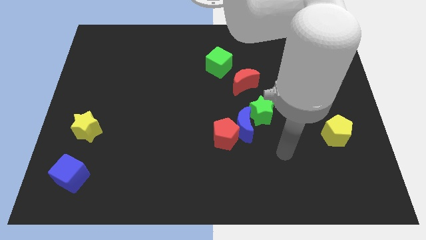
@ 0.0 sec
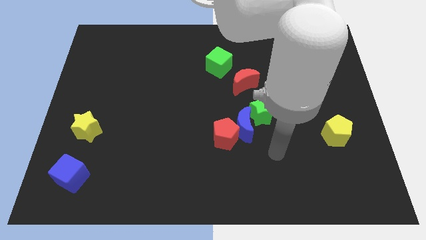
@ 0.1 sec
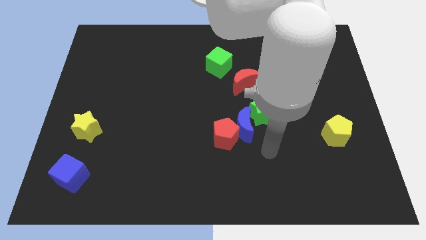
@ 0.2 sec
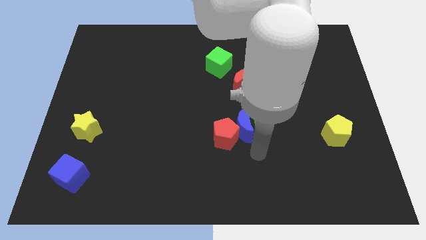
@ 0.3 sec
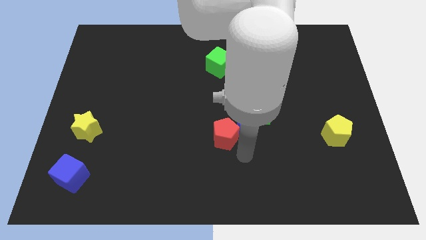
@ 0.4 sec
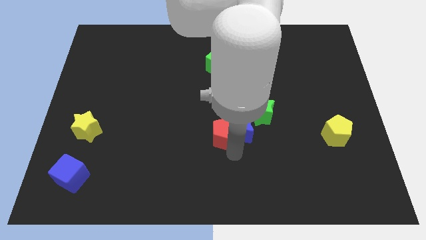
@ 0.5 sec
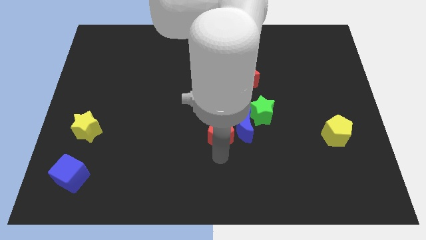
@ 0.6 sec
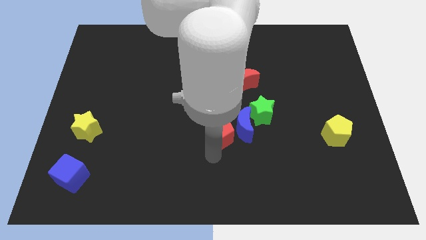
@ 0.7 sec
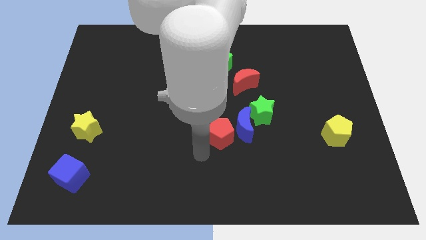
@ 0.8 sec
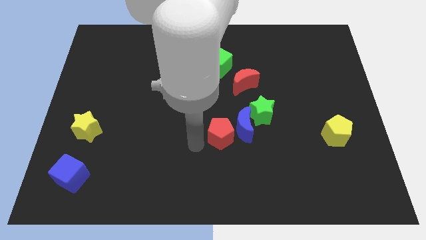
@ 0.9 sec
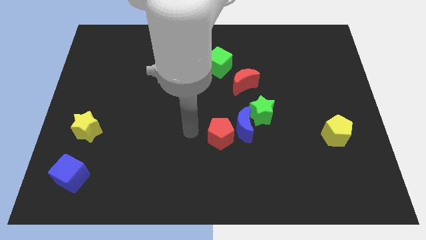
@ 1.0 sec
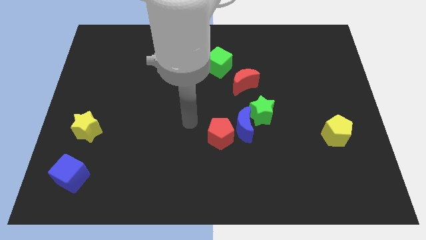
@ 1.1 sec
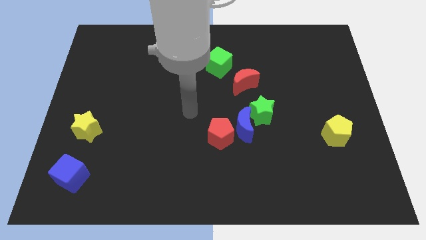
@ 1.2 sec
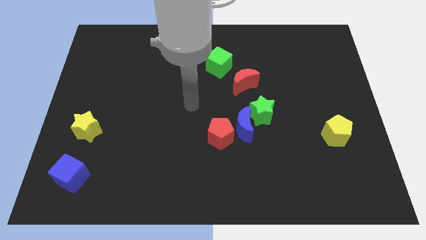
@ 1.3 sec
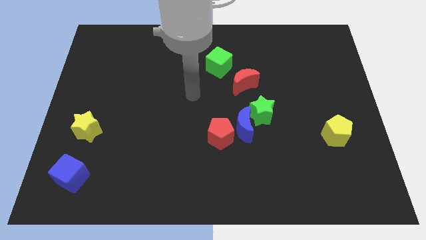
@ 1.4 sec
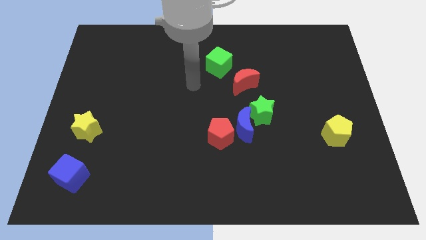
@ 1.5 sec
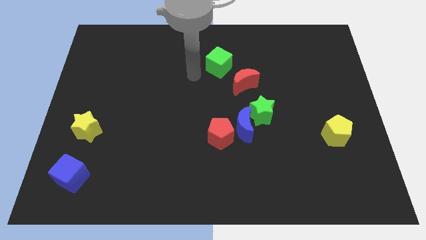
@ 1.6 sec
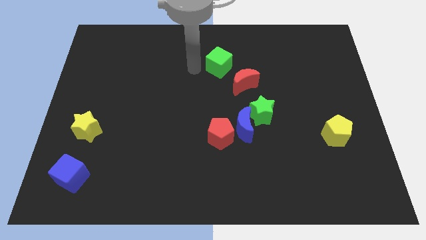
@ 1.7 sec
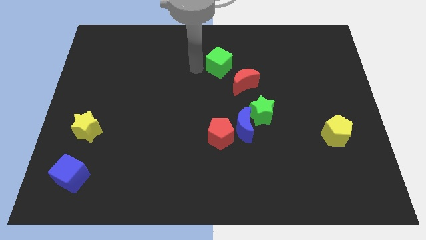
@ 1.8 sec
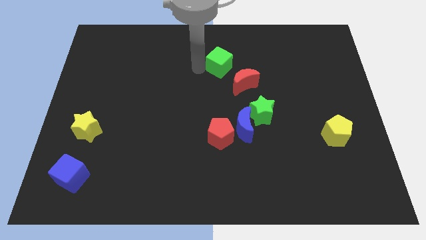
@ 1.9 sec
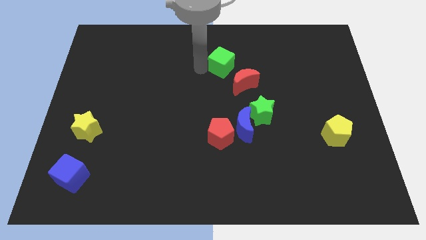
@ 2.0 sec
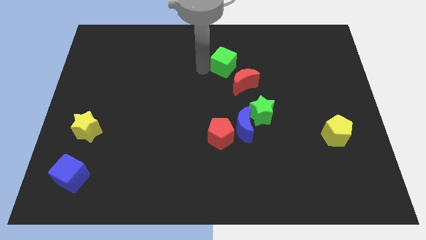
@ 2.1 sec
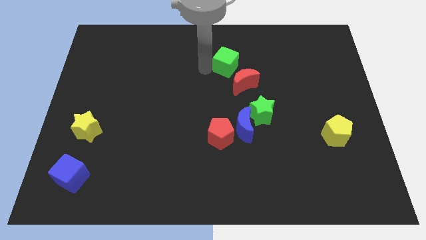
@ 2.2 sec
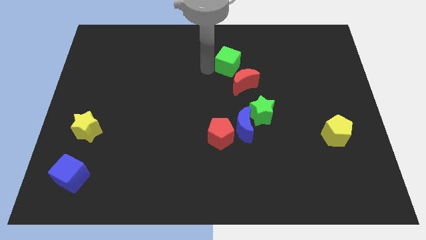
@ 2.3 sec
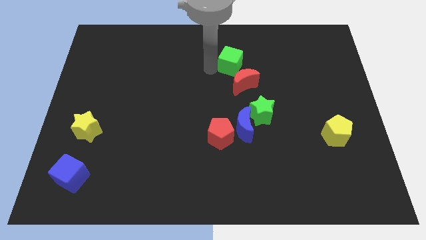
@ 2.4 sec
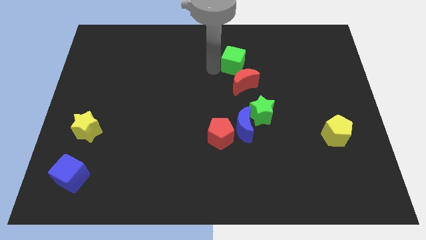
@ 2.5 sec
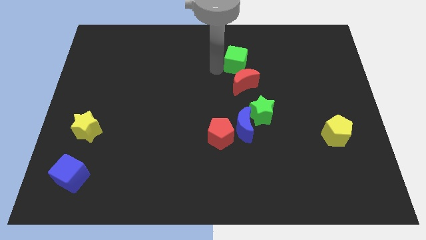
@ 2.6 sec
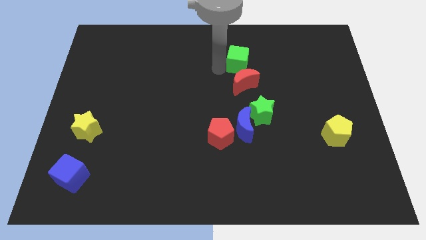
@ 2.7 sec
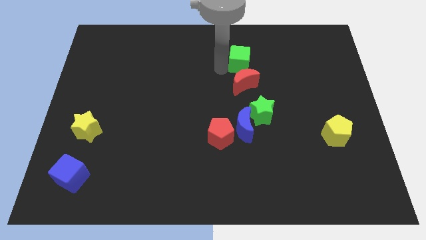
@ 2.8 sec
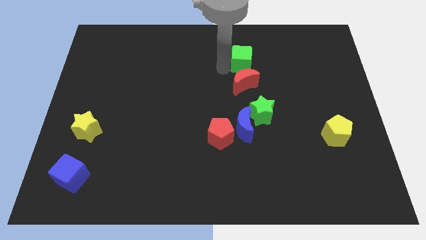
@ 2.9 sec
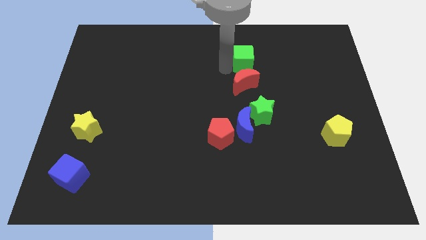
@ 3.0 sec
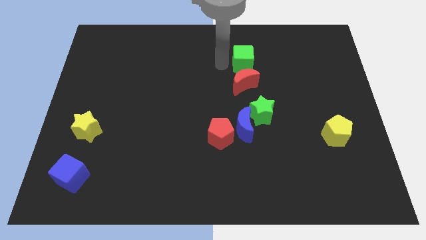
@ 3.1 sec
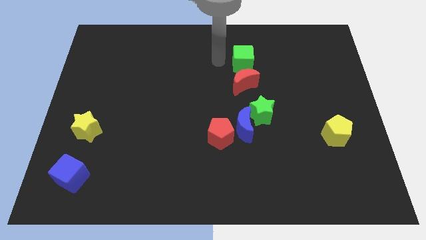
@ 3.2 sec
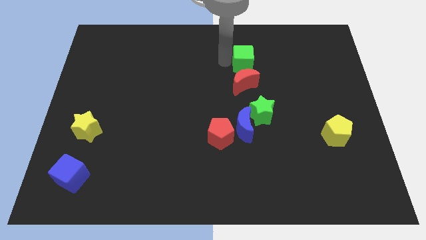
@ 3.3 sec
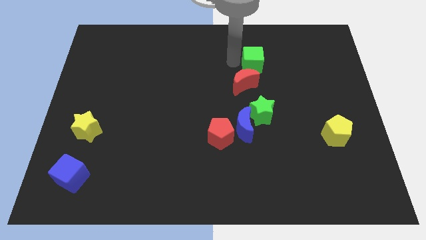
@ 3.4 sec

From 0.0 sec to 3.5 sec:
slightly slide the green cube right

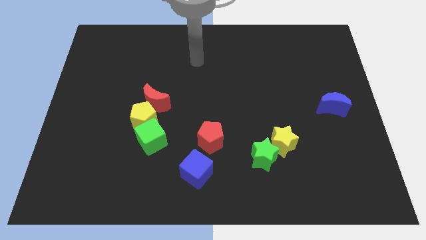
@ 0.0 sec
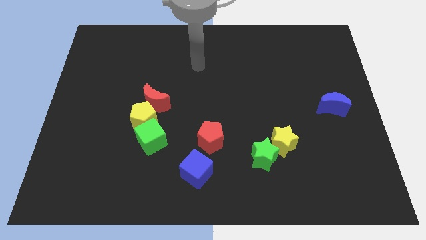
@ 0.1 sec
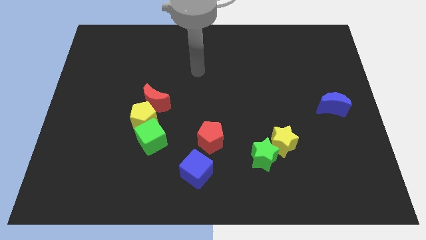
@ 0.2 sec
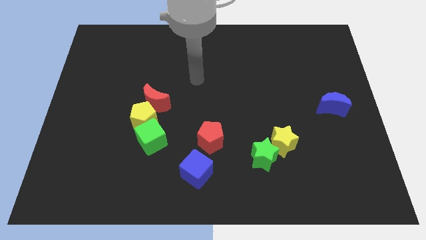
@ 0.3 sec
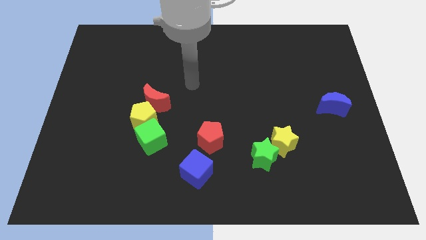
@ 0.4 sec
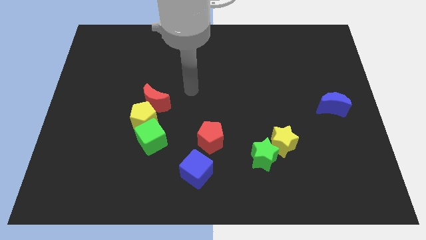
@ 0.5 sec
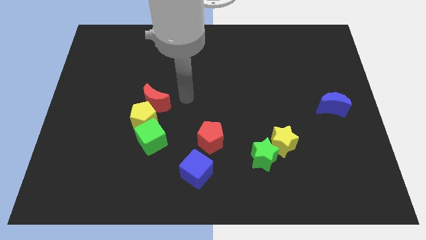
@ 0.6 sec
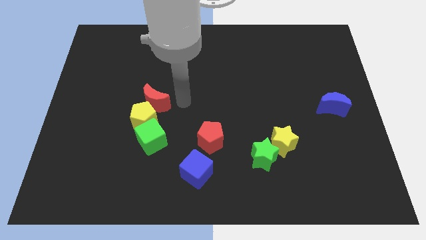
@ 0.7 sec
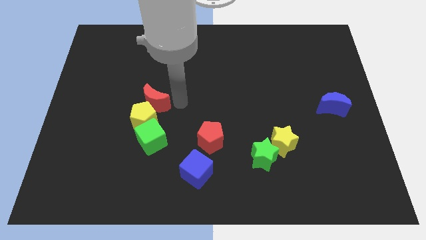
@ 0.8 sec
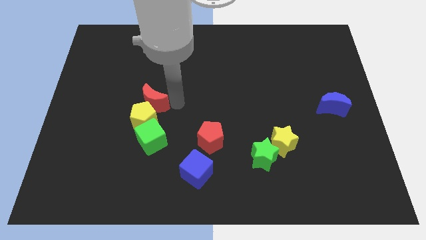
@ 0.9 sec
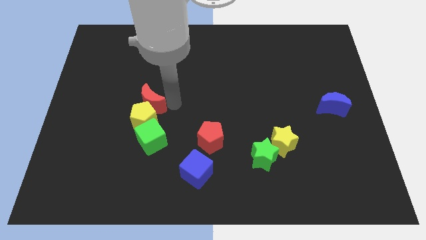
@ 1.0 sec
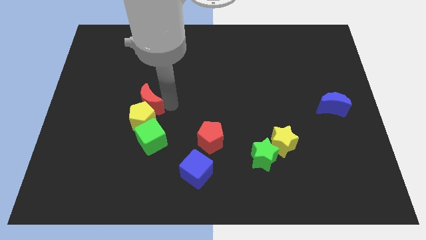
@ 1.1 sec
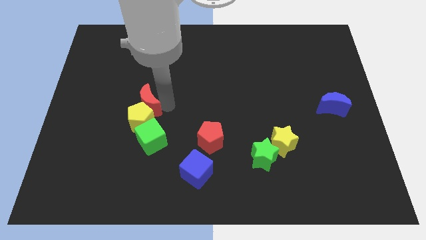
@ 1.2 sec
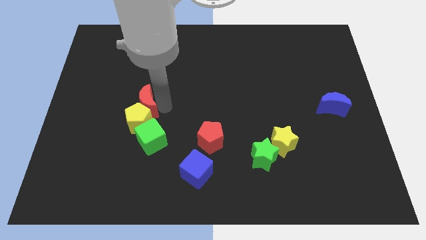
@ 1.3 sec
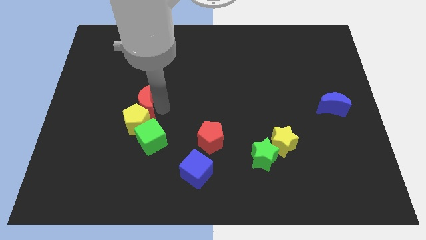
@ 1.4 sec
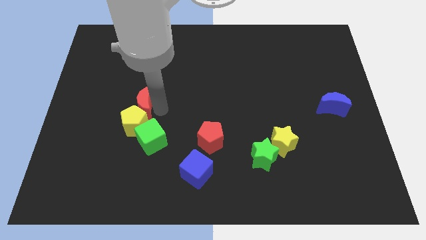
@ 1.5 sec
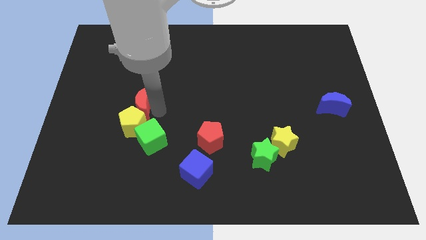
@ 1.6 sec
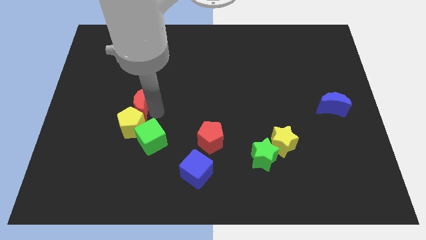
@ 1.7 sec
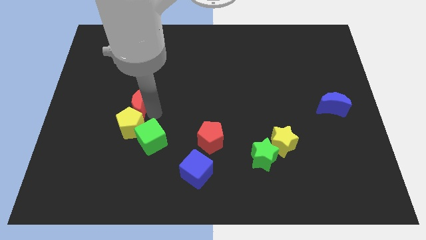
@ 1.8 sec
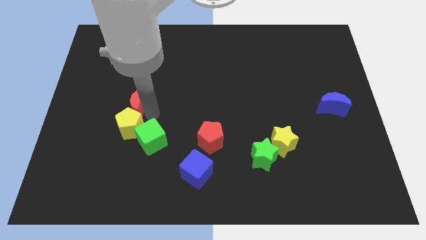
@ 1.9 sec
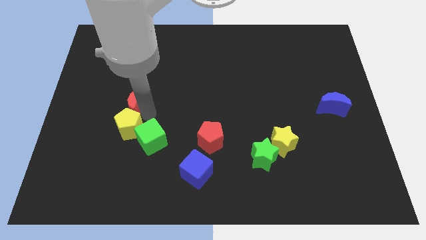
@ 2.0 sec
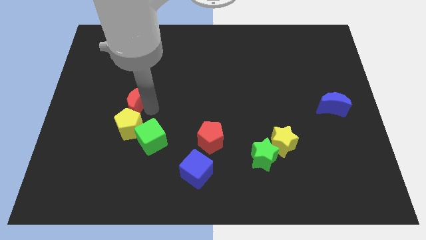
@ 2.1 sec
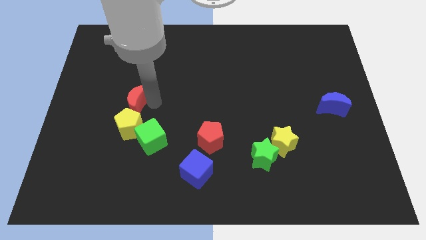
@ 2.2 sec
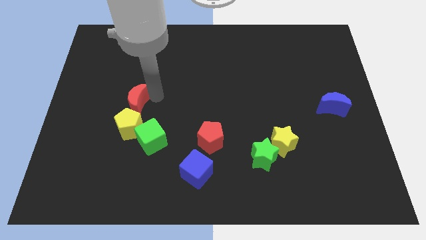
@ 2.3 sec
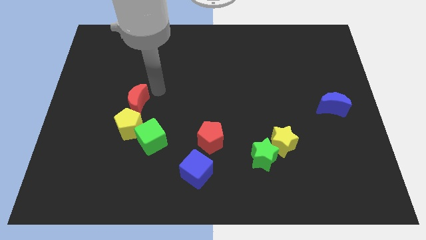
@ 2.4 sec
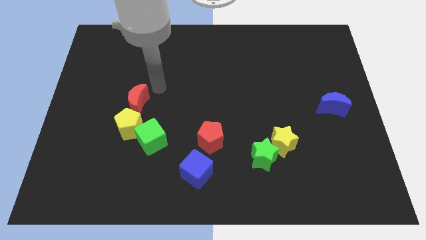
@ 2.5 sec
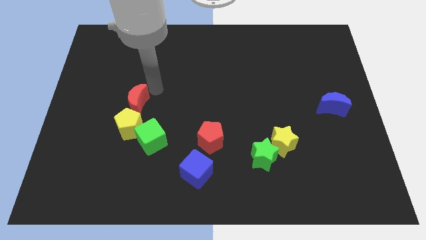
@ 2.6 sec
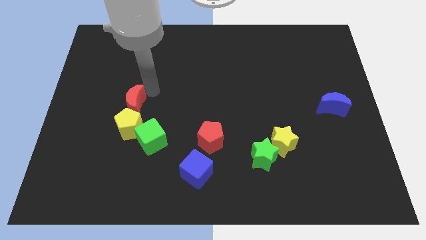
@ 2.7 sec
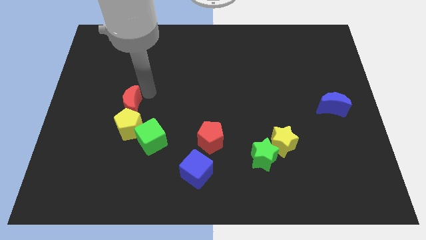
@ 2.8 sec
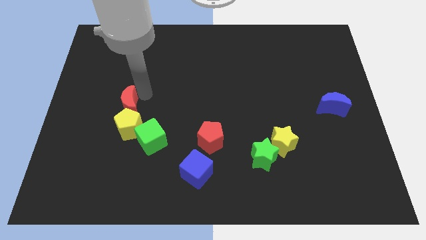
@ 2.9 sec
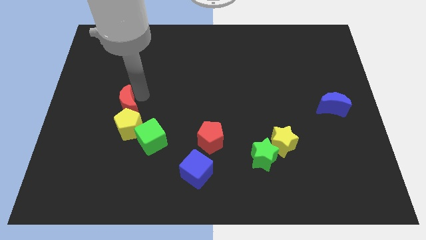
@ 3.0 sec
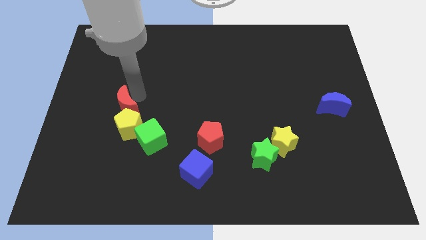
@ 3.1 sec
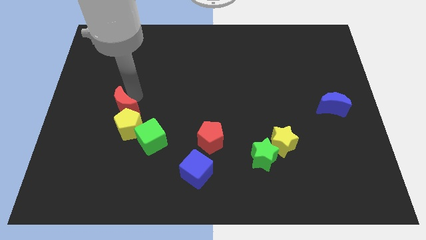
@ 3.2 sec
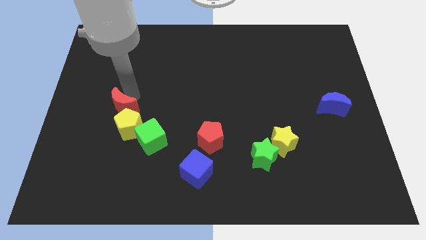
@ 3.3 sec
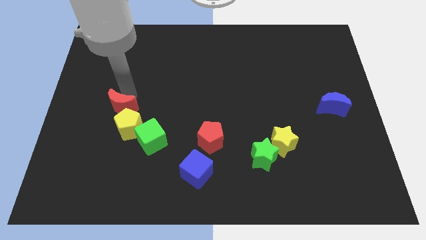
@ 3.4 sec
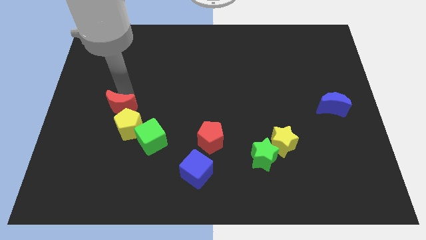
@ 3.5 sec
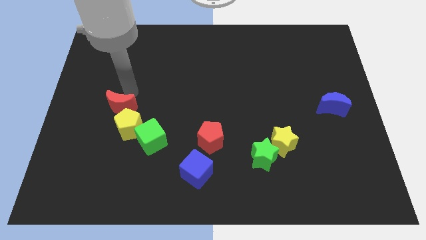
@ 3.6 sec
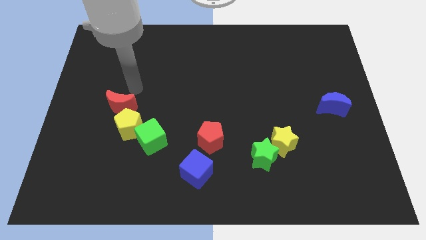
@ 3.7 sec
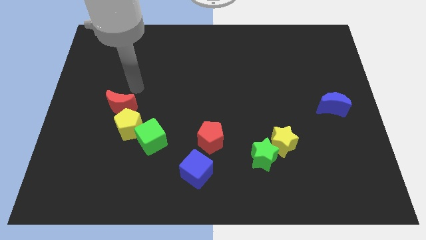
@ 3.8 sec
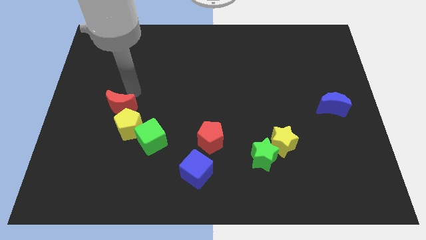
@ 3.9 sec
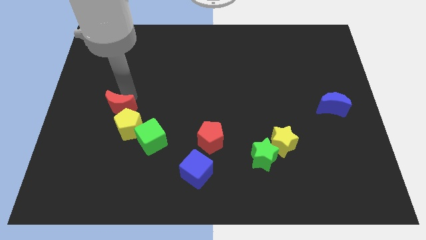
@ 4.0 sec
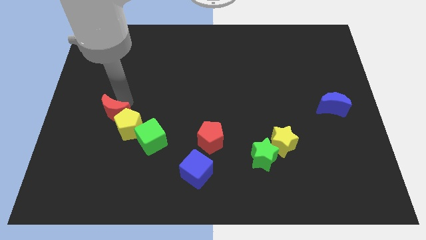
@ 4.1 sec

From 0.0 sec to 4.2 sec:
slightly push the red moon diagonally downwards and left

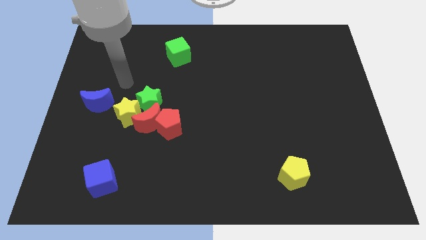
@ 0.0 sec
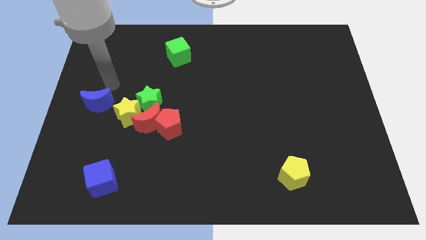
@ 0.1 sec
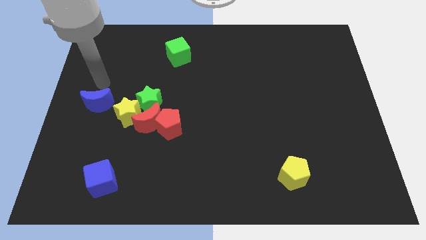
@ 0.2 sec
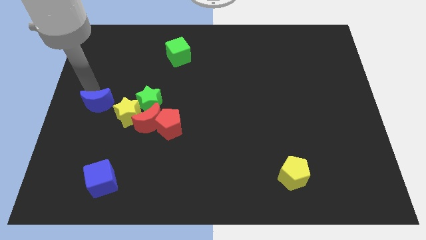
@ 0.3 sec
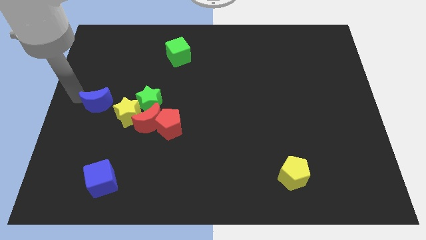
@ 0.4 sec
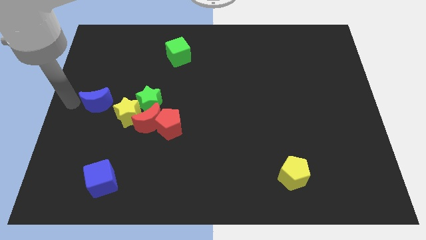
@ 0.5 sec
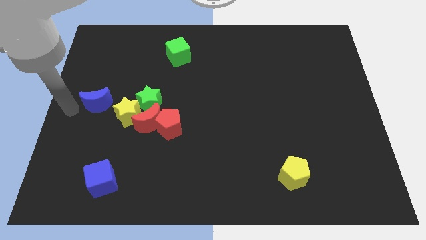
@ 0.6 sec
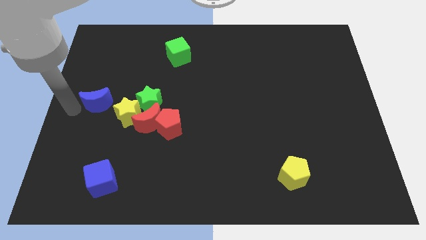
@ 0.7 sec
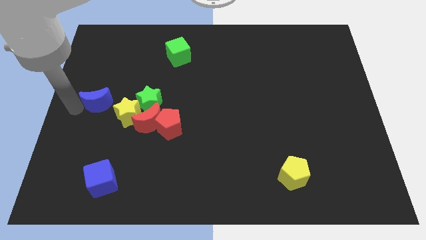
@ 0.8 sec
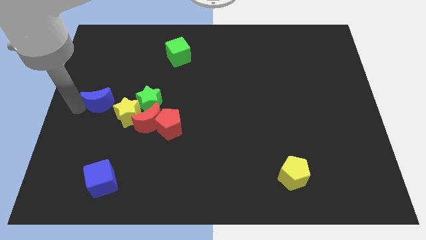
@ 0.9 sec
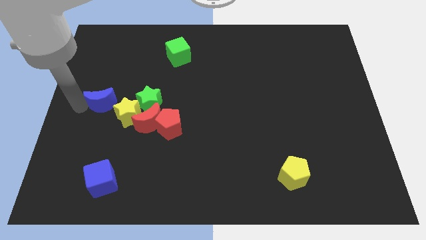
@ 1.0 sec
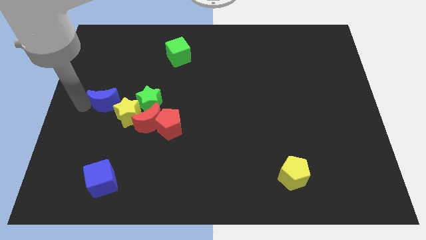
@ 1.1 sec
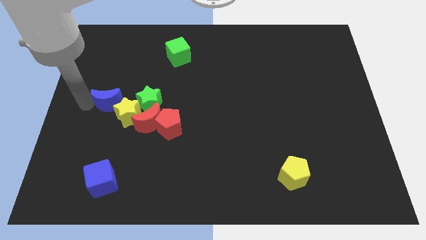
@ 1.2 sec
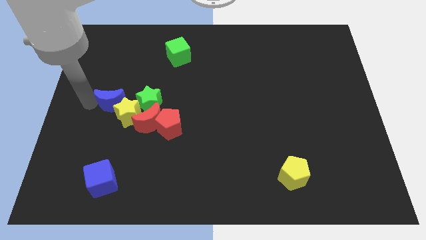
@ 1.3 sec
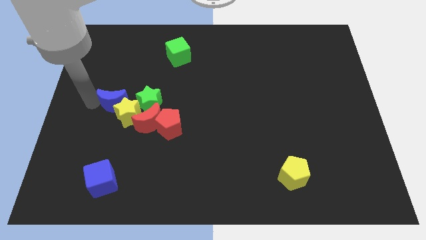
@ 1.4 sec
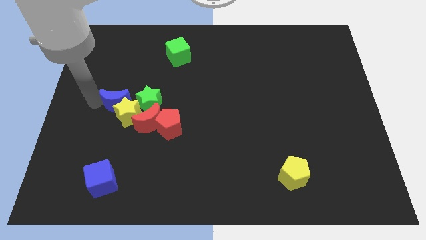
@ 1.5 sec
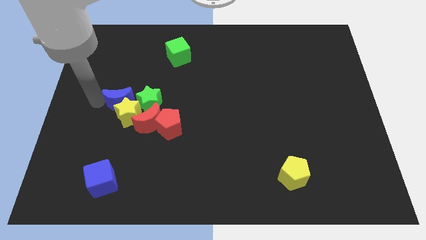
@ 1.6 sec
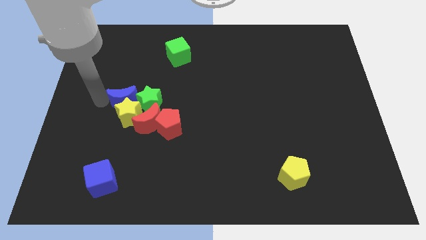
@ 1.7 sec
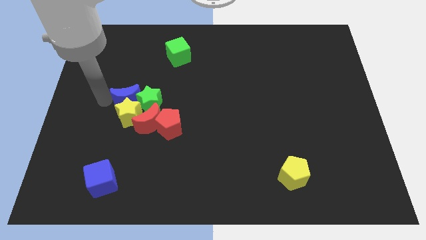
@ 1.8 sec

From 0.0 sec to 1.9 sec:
push the blue moon right a little bit
